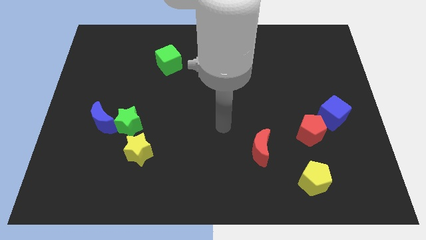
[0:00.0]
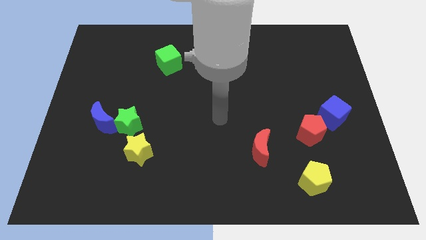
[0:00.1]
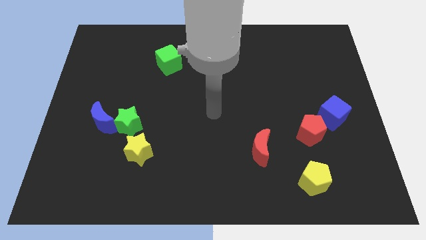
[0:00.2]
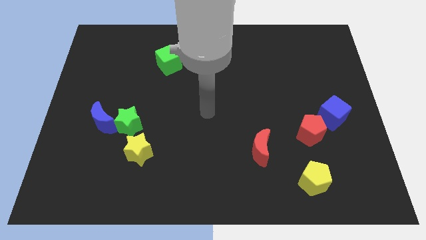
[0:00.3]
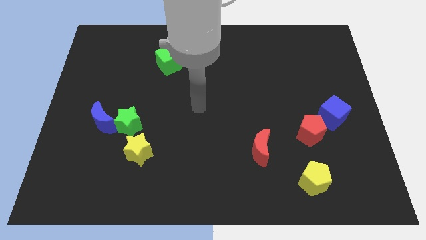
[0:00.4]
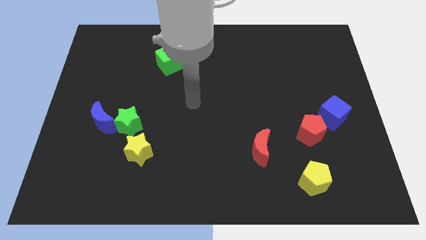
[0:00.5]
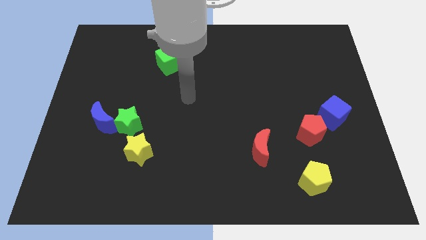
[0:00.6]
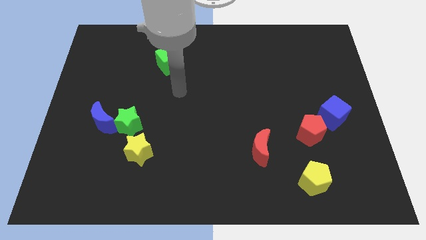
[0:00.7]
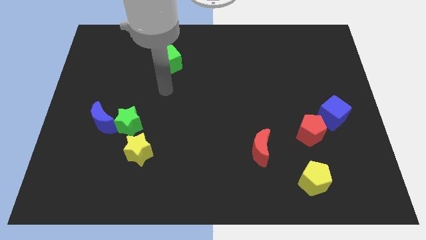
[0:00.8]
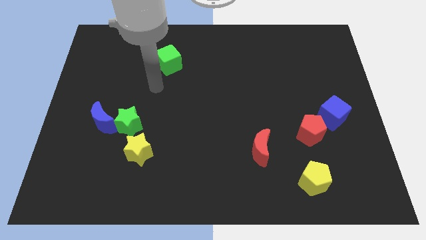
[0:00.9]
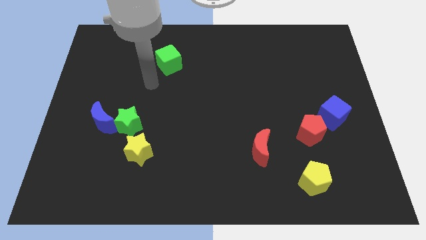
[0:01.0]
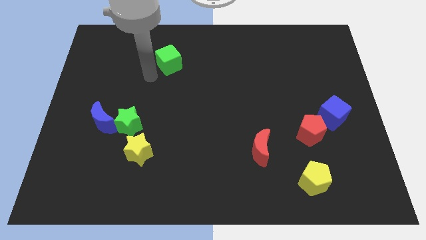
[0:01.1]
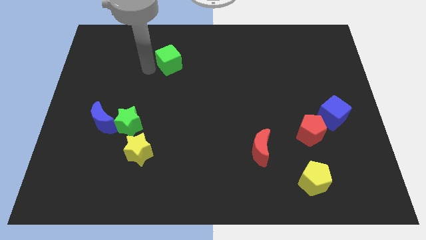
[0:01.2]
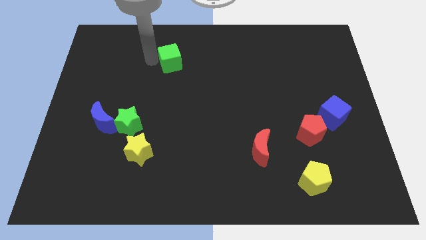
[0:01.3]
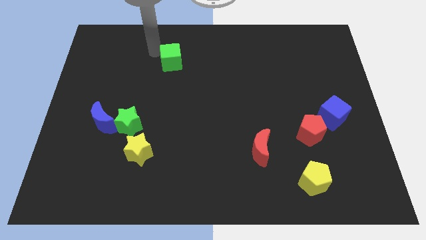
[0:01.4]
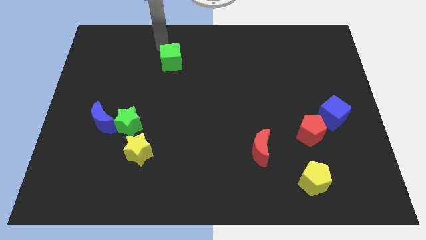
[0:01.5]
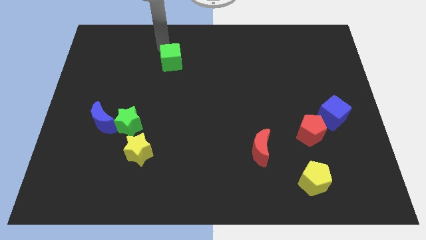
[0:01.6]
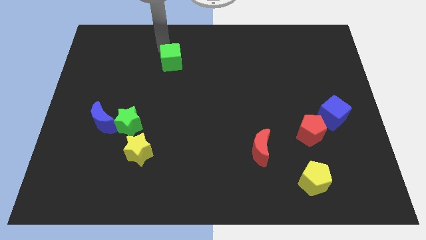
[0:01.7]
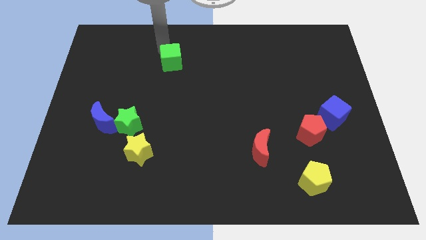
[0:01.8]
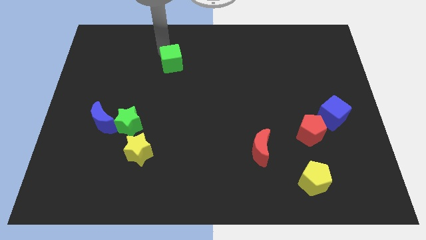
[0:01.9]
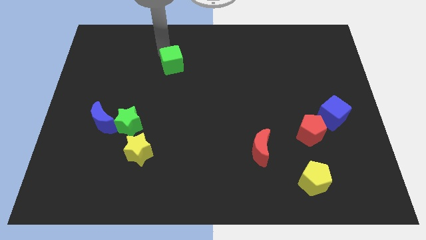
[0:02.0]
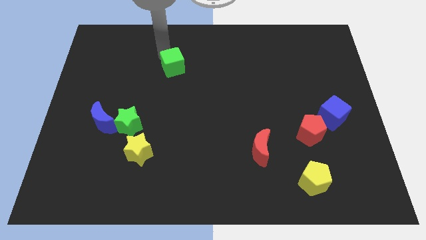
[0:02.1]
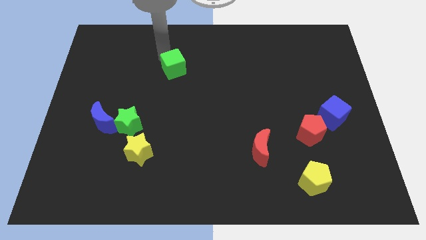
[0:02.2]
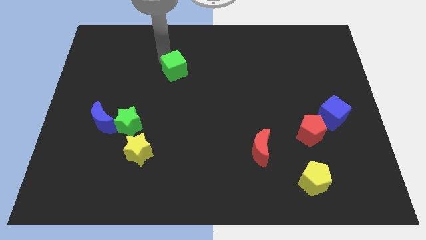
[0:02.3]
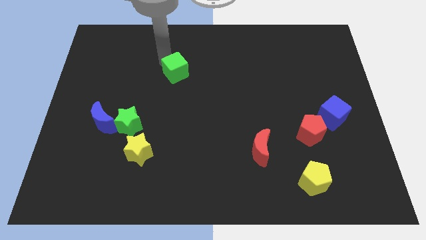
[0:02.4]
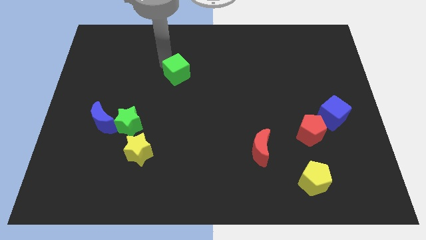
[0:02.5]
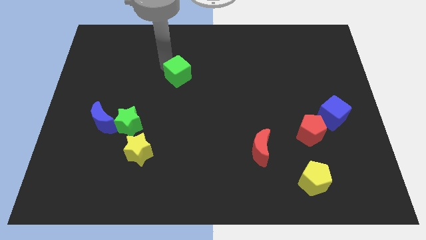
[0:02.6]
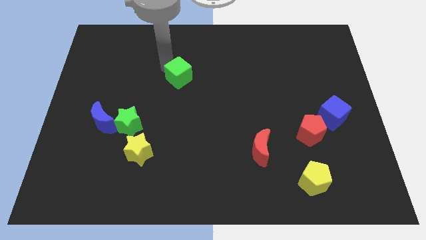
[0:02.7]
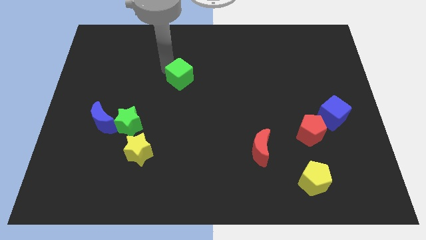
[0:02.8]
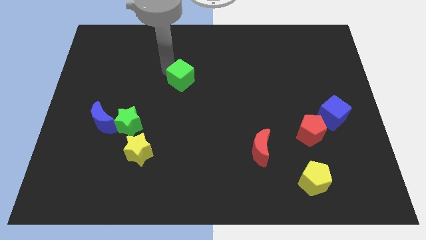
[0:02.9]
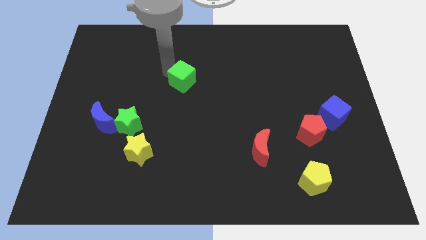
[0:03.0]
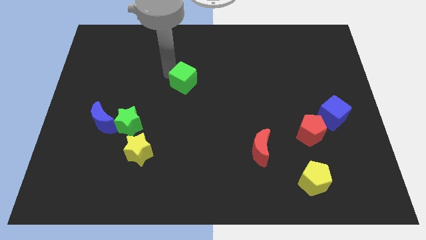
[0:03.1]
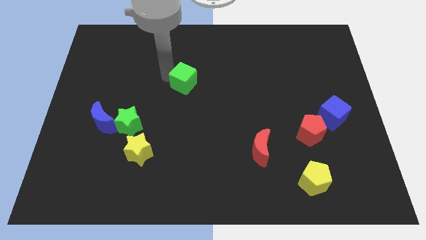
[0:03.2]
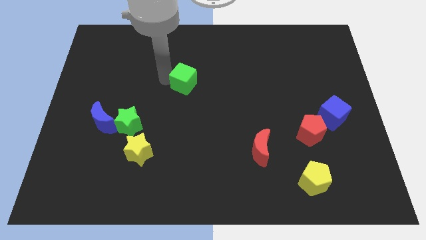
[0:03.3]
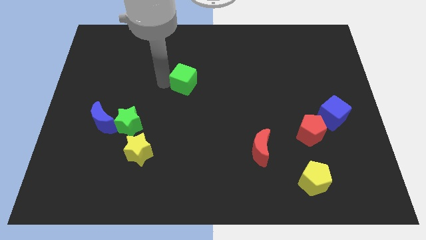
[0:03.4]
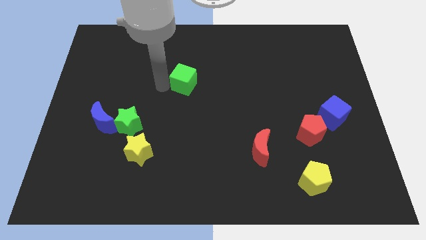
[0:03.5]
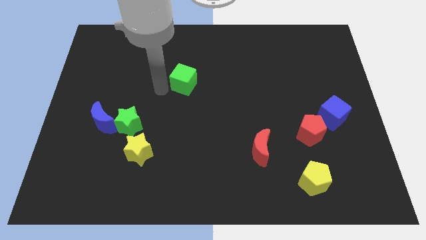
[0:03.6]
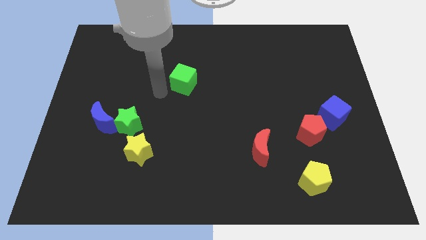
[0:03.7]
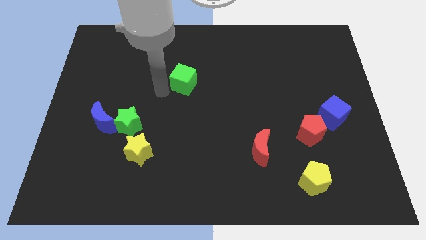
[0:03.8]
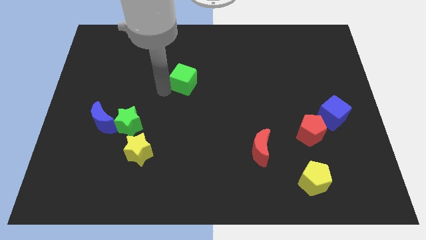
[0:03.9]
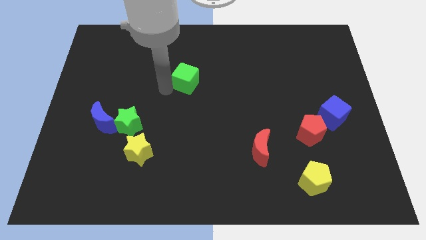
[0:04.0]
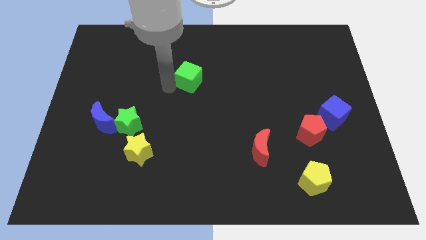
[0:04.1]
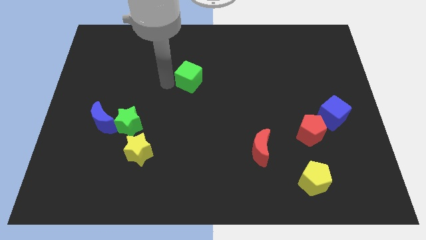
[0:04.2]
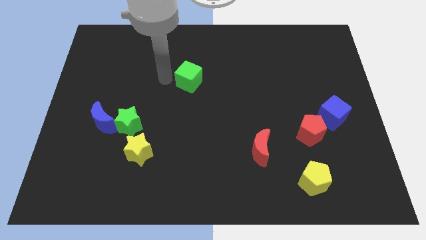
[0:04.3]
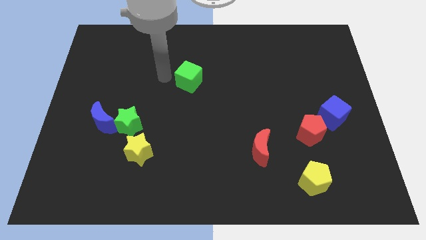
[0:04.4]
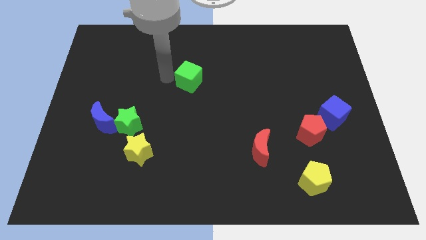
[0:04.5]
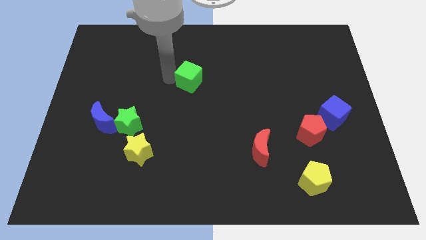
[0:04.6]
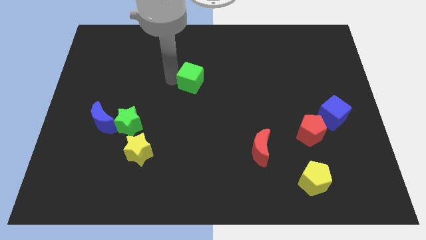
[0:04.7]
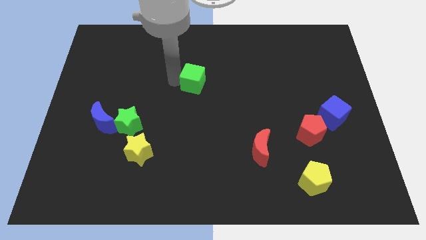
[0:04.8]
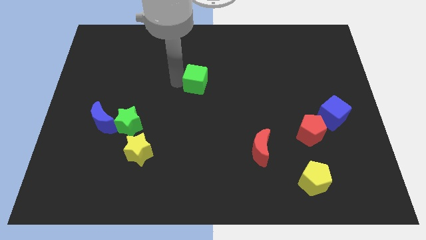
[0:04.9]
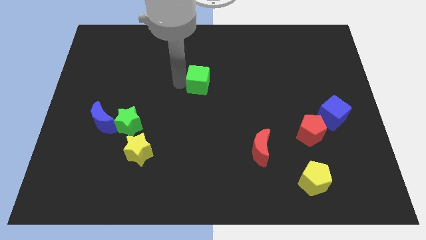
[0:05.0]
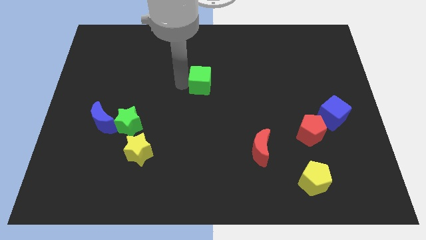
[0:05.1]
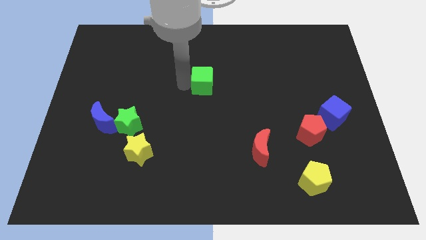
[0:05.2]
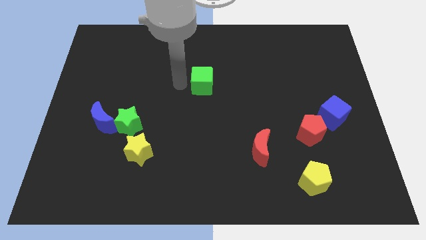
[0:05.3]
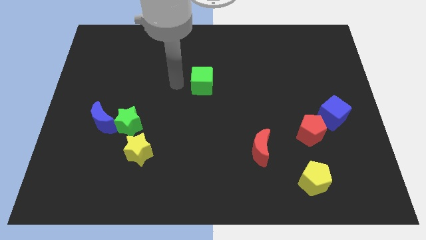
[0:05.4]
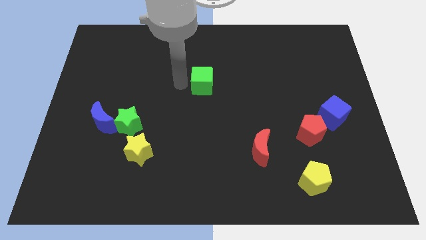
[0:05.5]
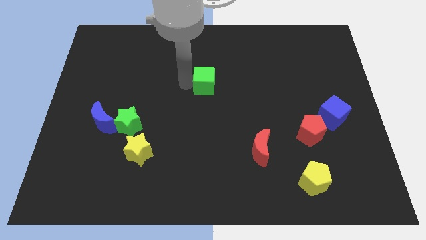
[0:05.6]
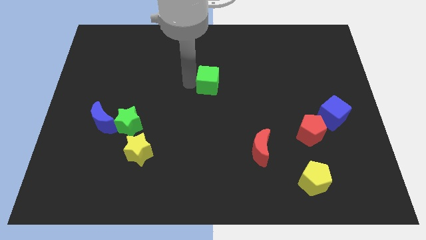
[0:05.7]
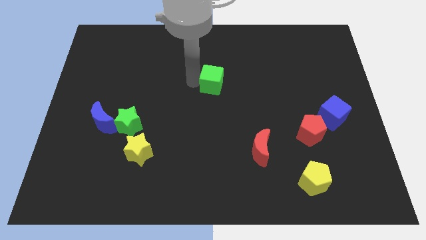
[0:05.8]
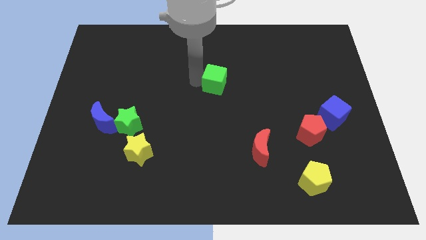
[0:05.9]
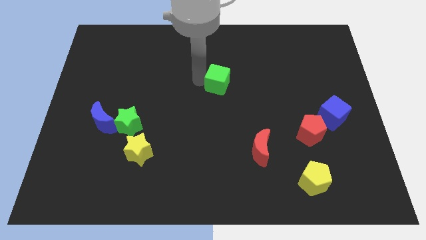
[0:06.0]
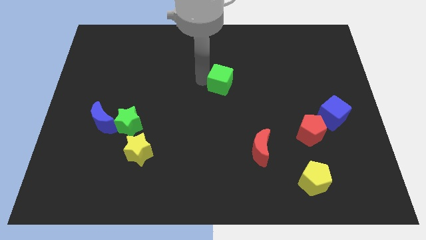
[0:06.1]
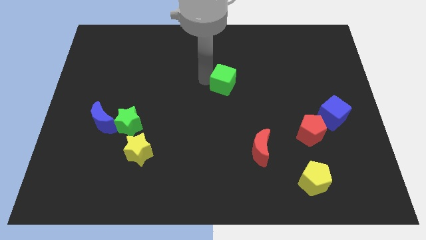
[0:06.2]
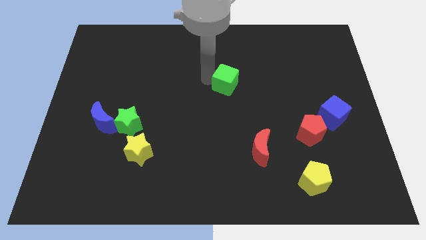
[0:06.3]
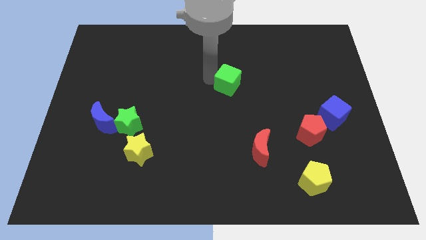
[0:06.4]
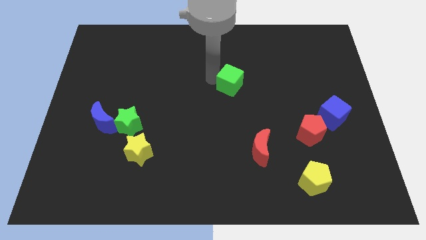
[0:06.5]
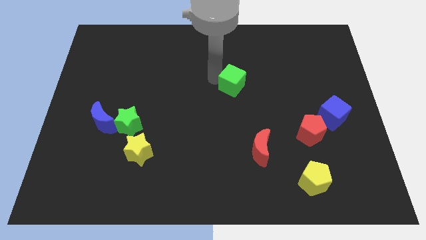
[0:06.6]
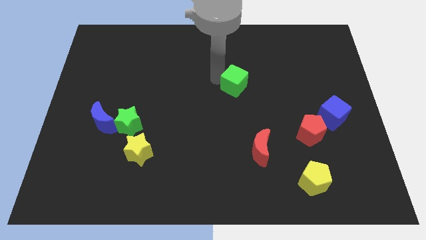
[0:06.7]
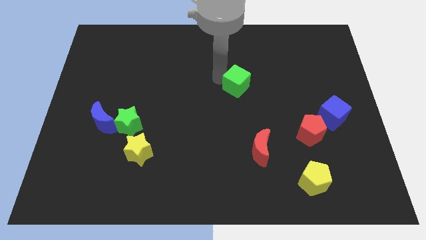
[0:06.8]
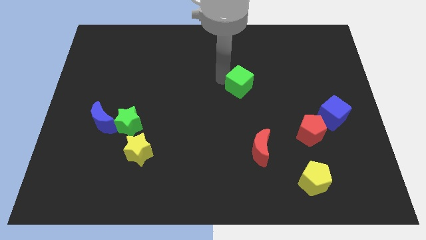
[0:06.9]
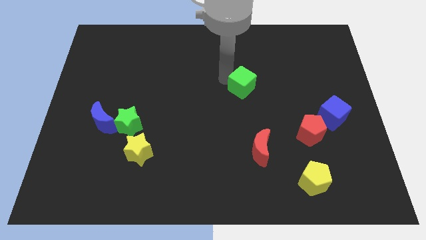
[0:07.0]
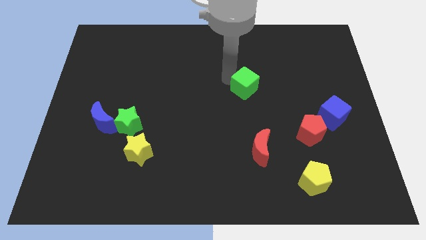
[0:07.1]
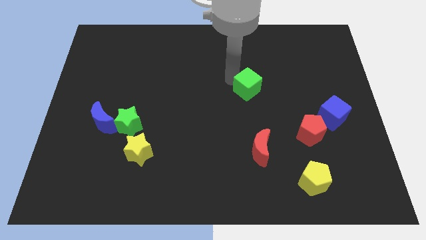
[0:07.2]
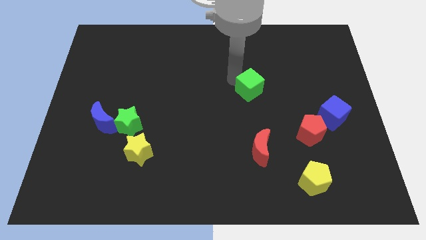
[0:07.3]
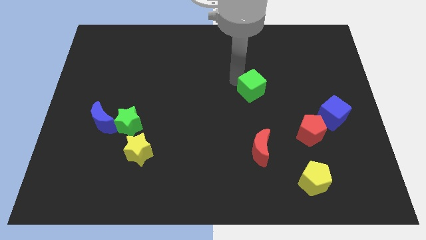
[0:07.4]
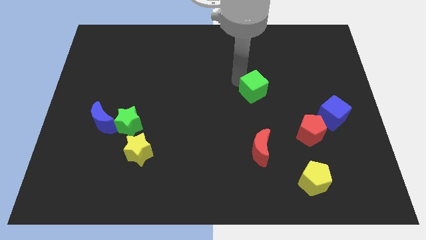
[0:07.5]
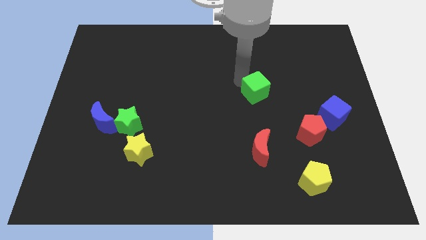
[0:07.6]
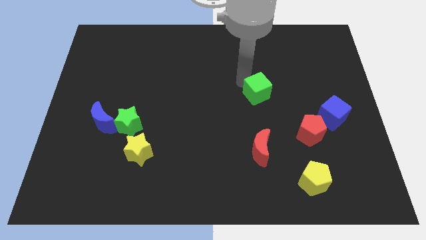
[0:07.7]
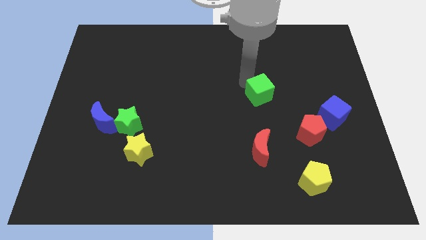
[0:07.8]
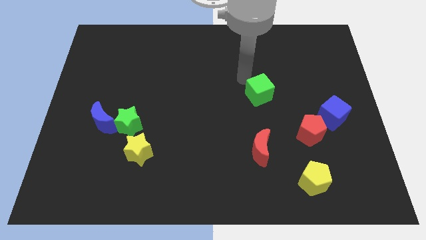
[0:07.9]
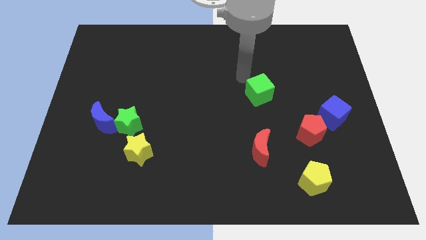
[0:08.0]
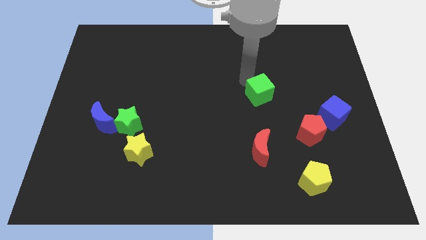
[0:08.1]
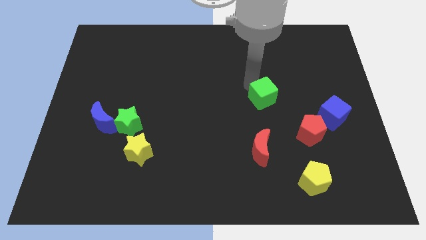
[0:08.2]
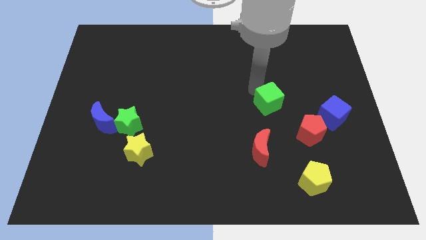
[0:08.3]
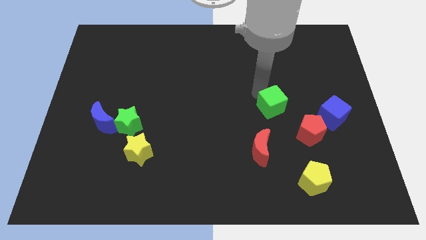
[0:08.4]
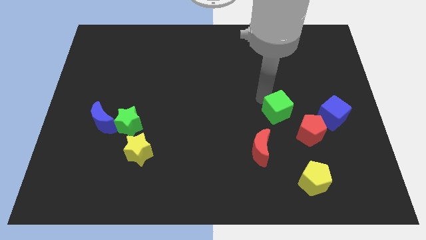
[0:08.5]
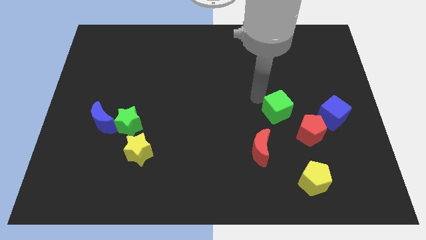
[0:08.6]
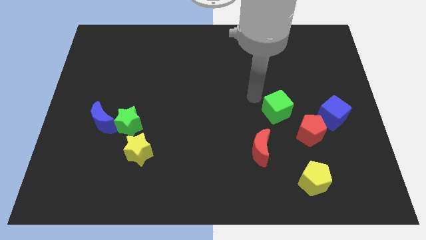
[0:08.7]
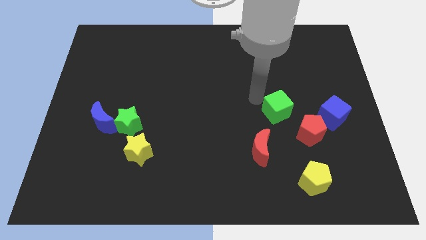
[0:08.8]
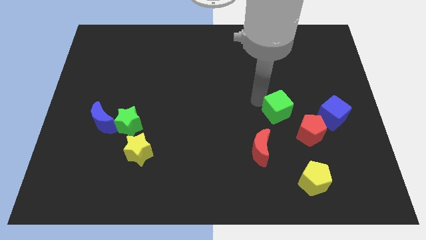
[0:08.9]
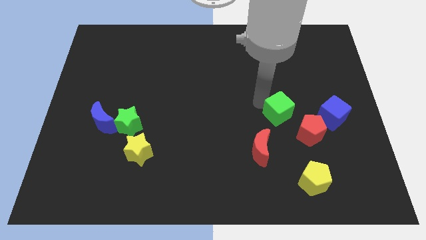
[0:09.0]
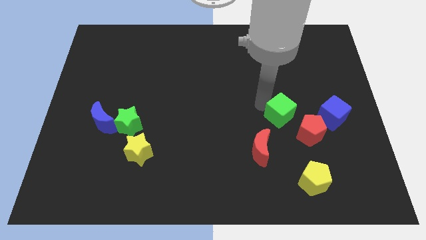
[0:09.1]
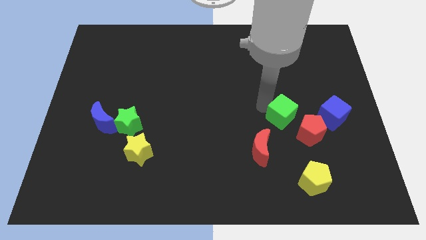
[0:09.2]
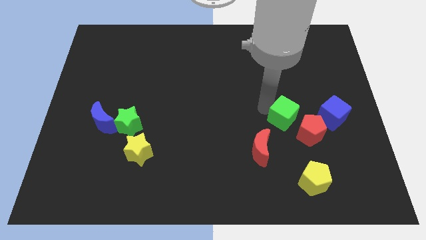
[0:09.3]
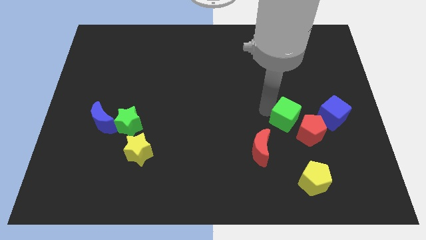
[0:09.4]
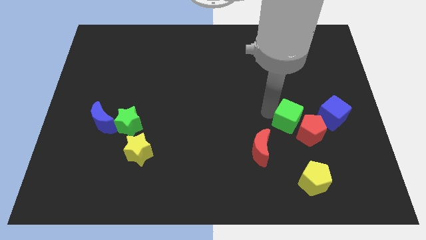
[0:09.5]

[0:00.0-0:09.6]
put the green cube next to the red pentagon
